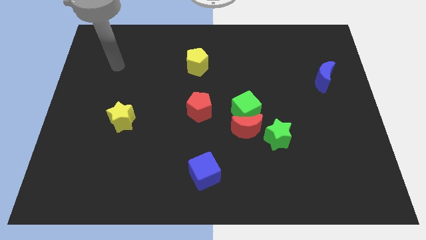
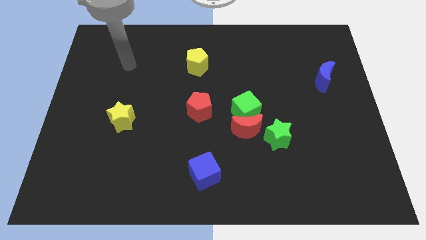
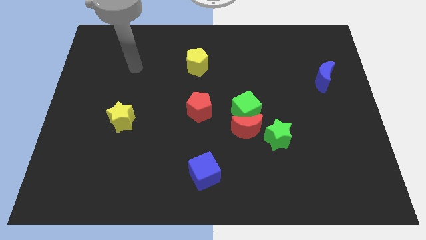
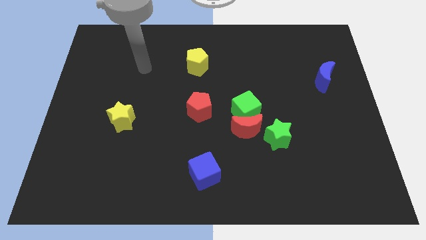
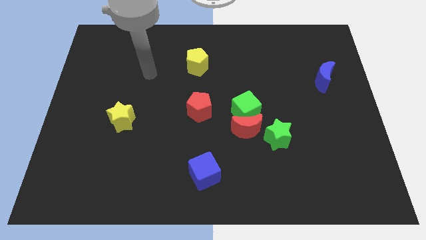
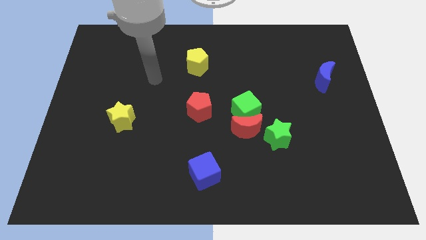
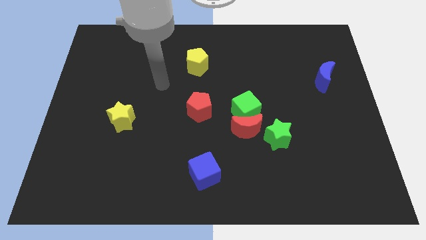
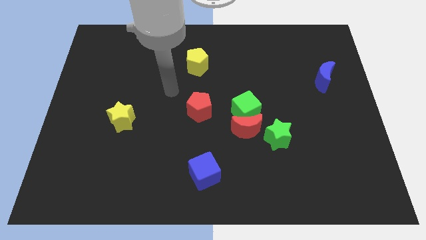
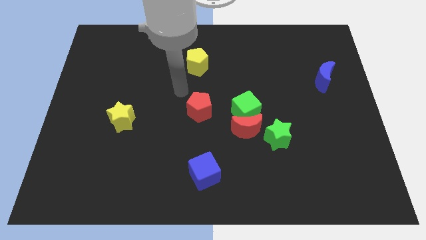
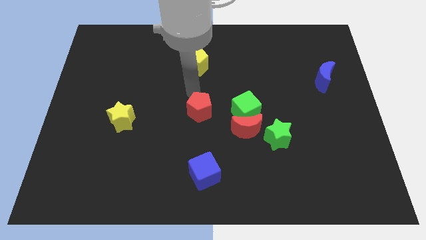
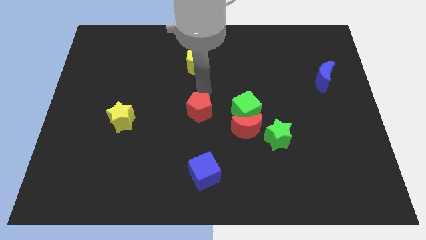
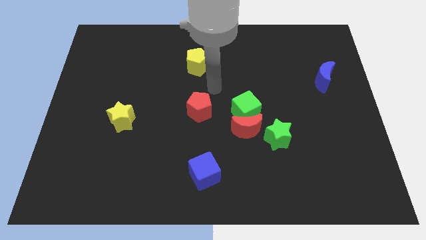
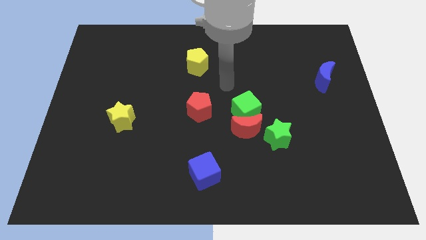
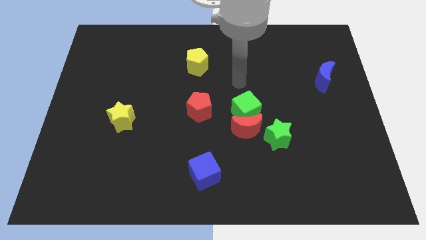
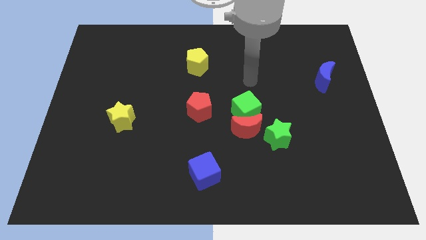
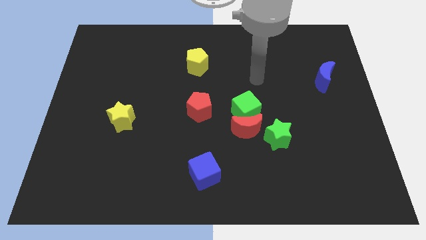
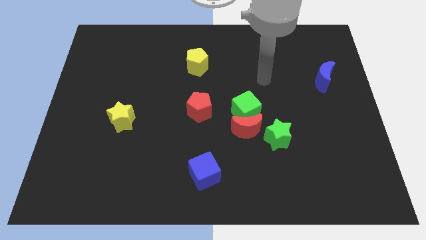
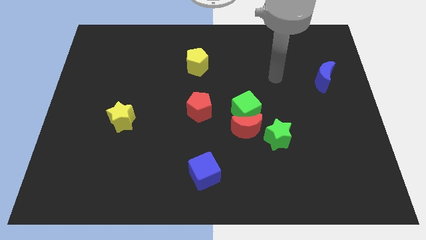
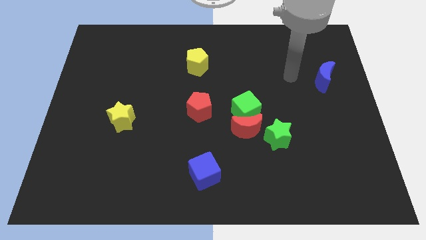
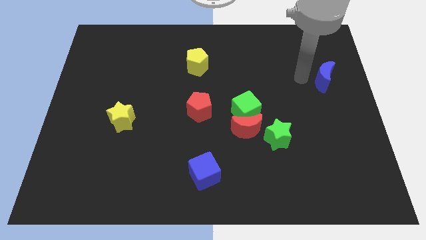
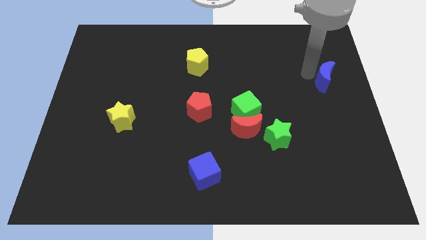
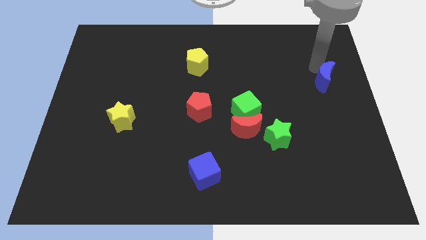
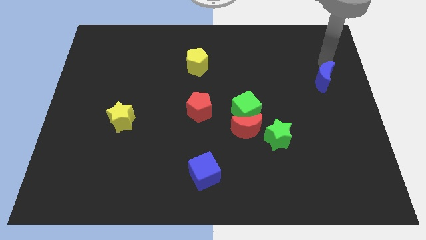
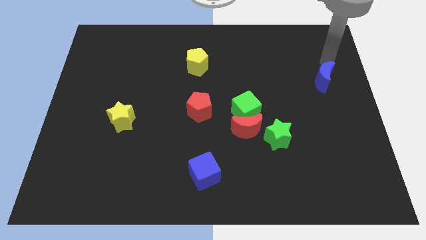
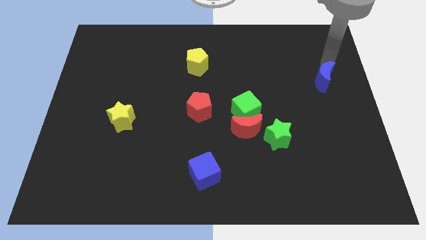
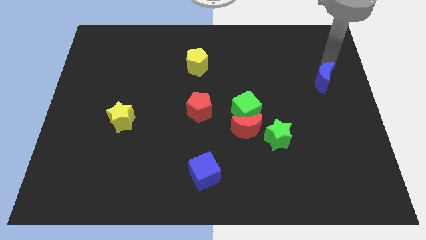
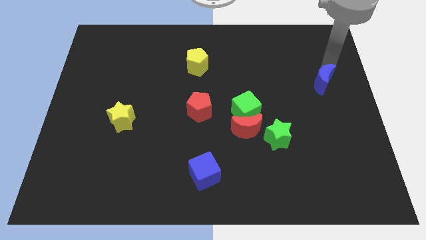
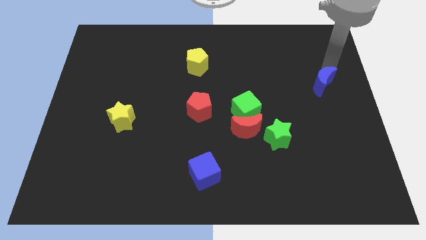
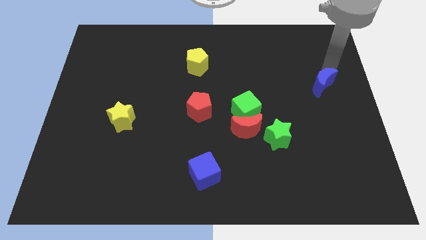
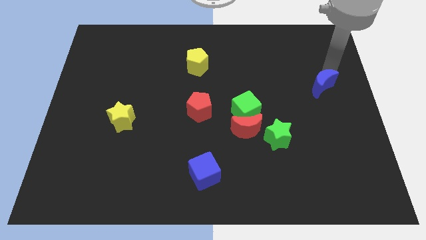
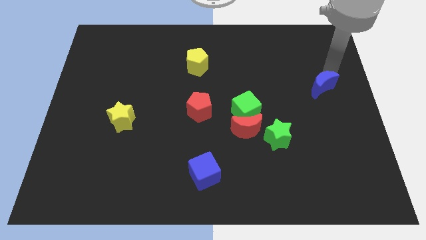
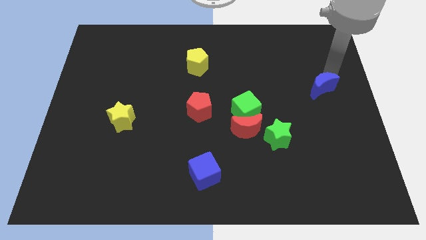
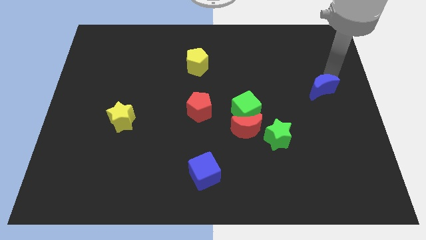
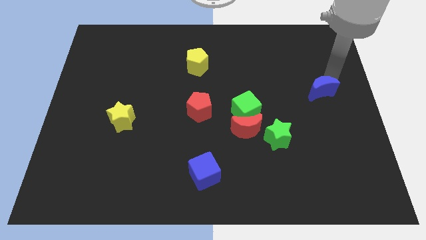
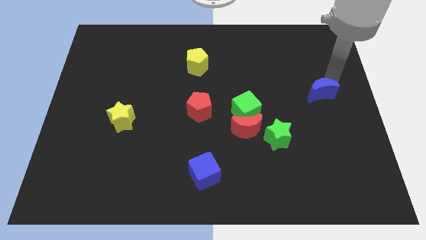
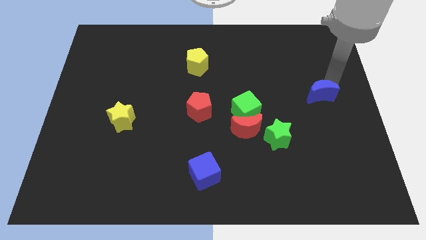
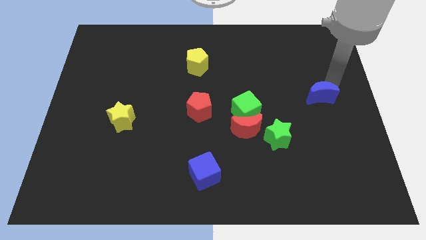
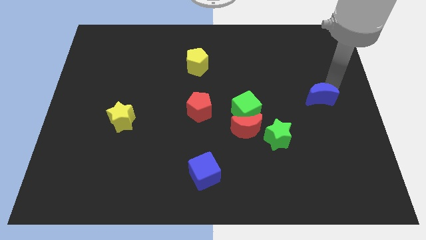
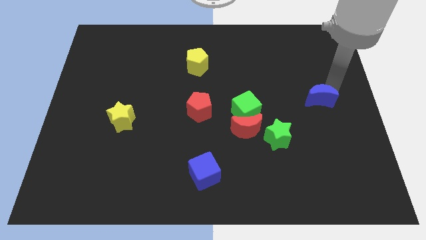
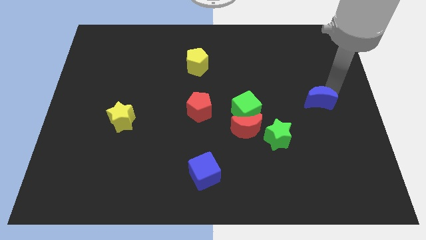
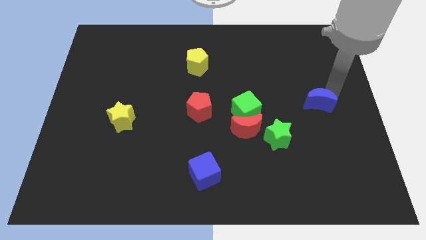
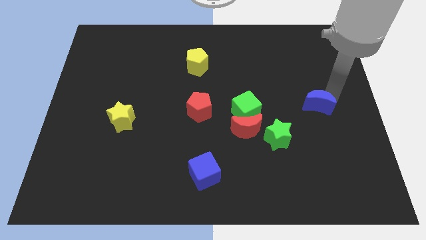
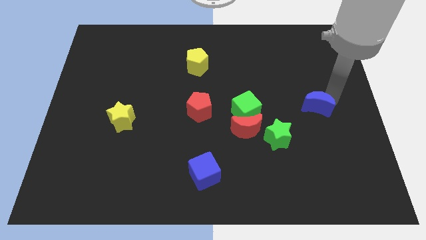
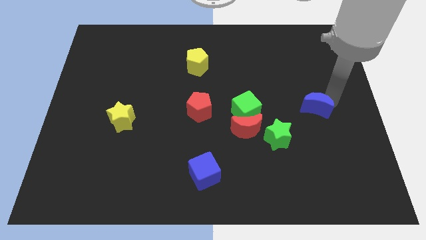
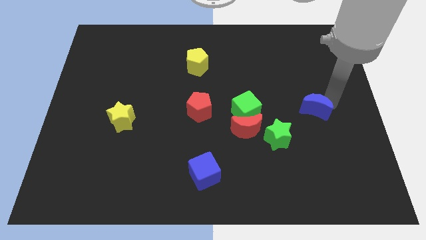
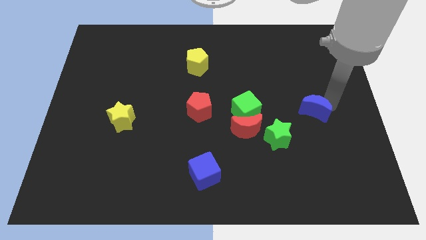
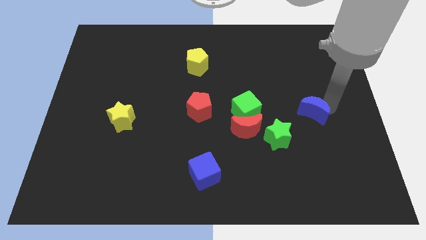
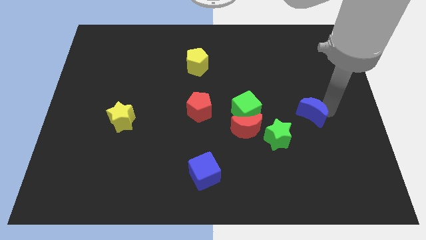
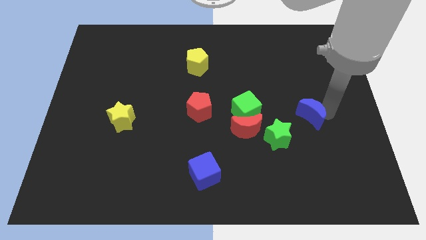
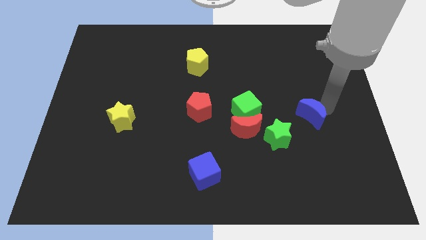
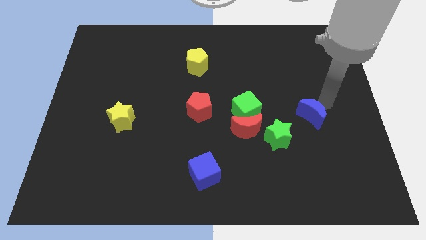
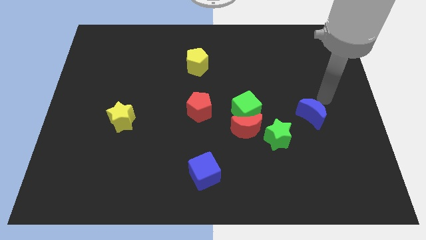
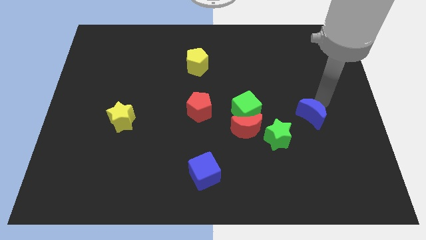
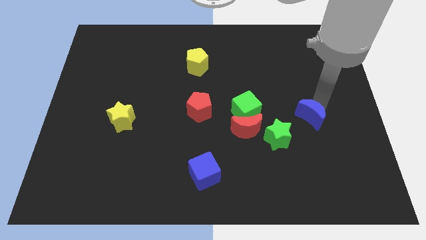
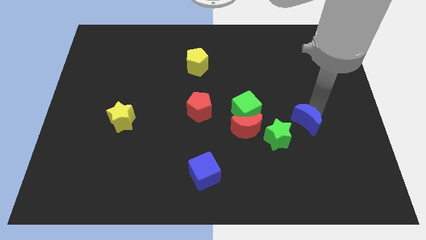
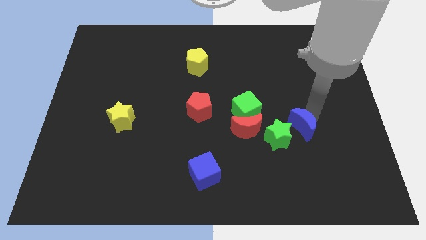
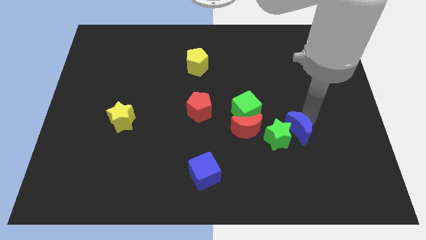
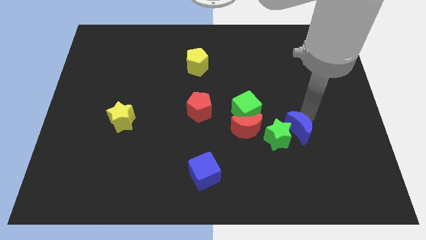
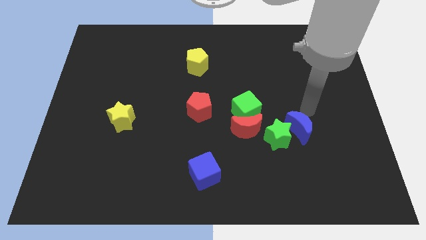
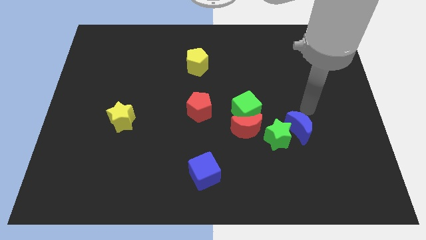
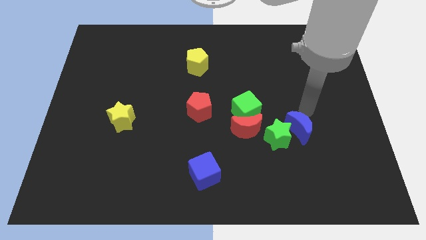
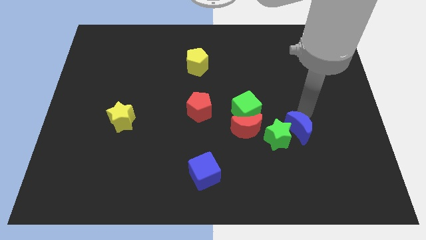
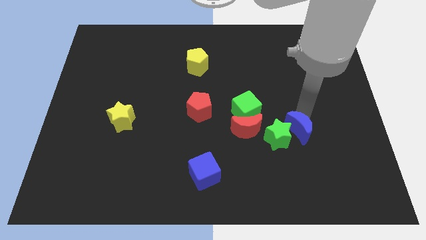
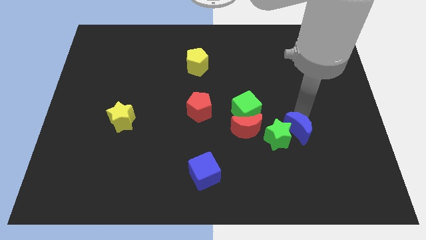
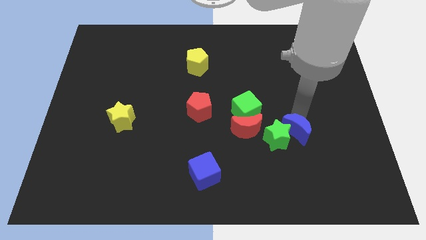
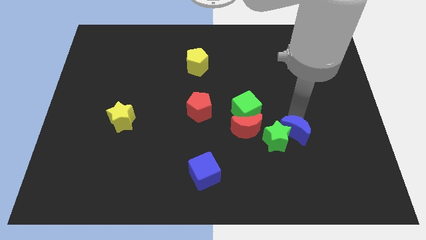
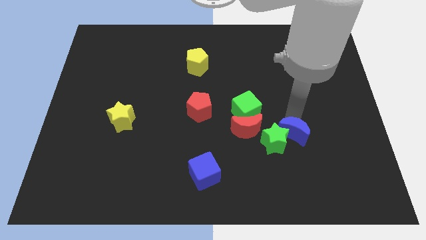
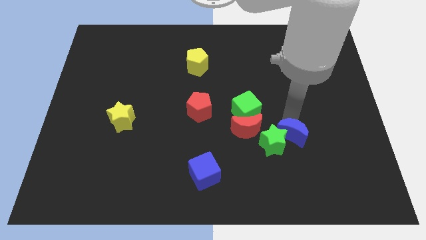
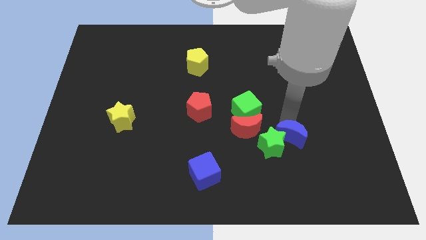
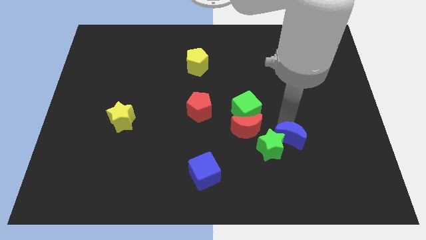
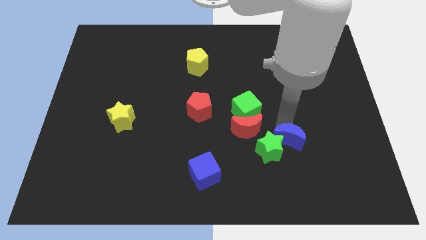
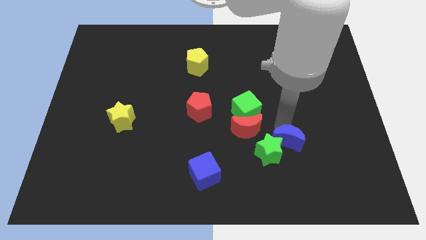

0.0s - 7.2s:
slide the blue moon down and to the left

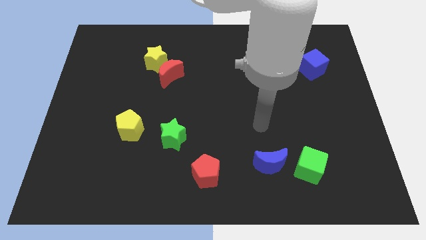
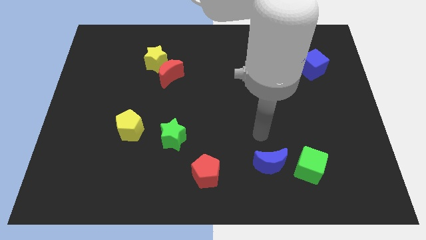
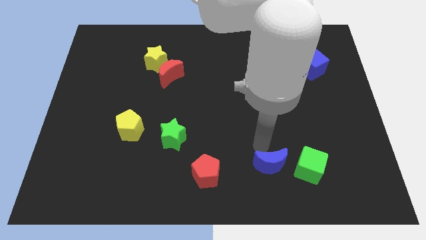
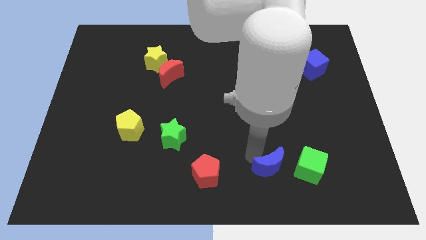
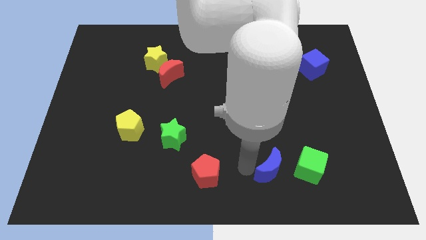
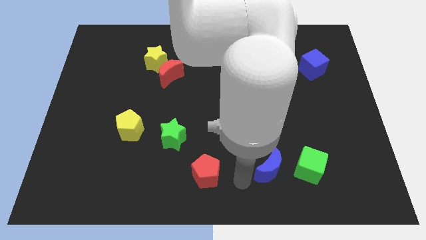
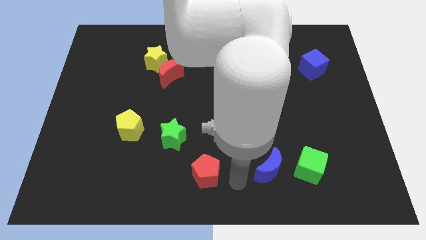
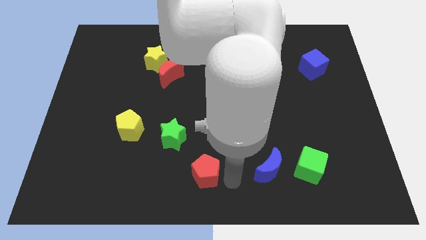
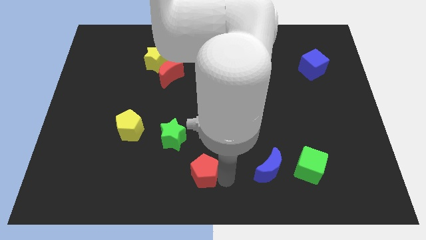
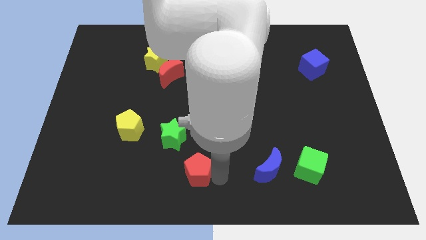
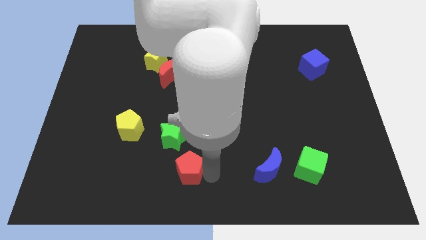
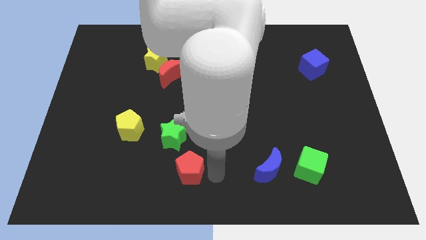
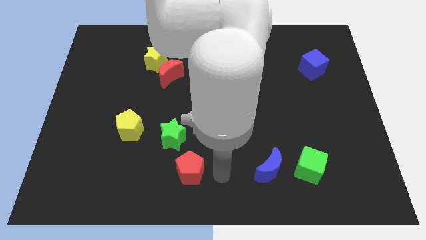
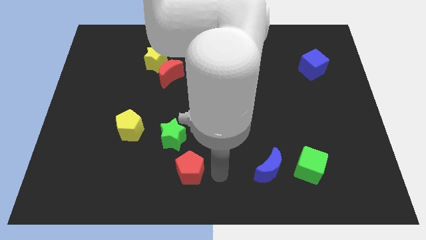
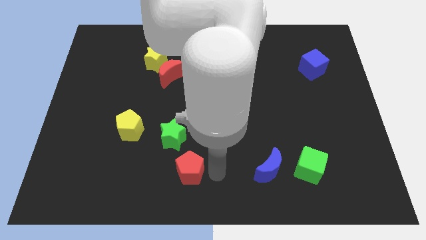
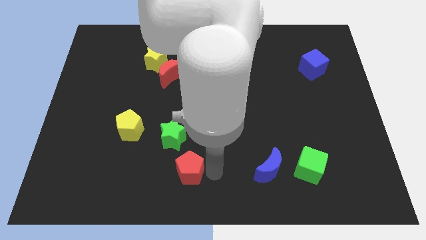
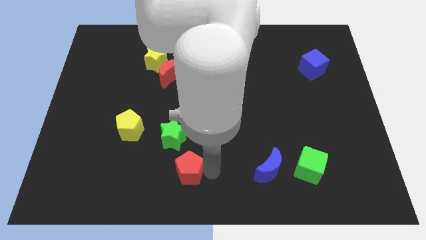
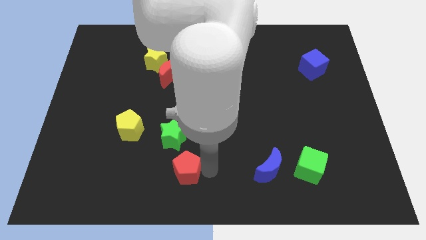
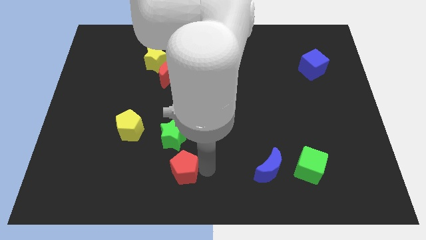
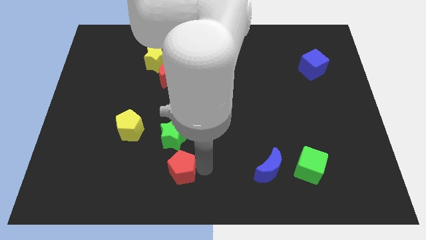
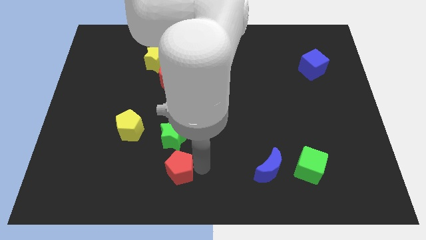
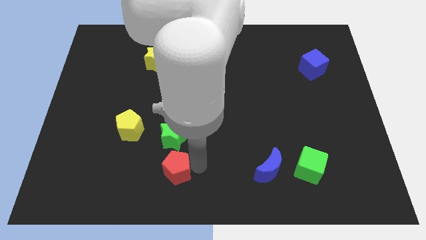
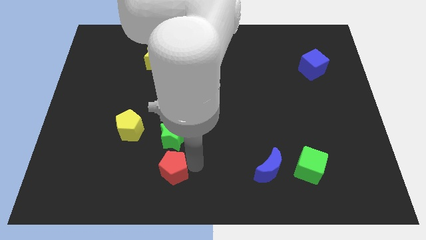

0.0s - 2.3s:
move the red pentagon a little bit left
